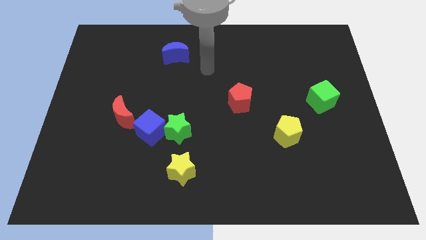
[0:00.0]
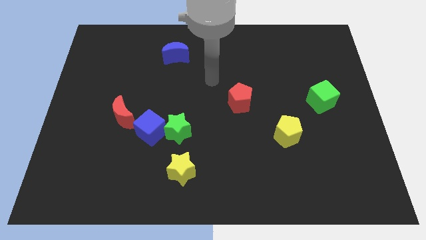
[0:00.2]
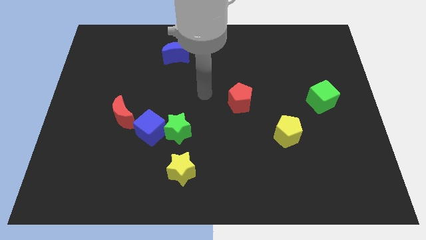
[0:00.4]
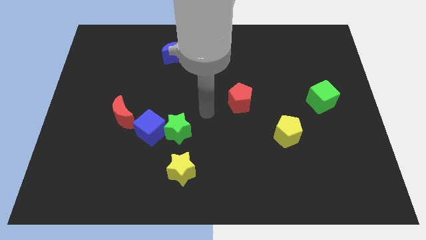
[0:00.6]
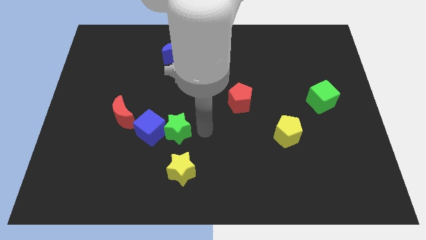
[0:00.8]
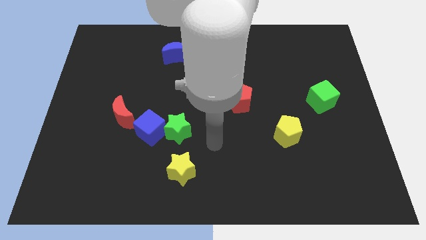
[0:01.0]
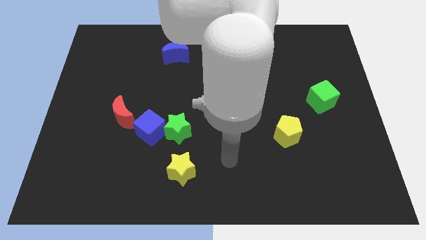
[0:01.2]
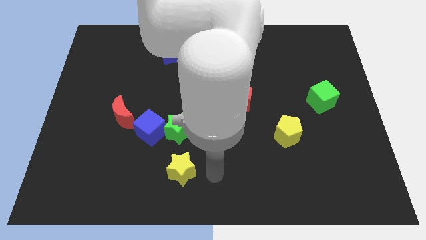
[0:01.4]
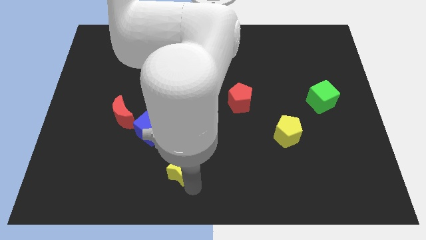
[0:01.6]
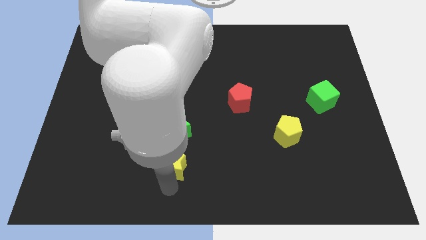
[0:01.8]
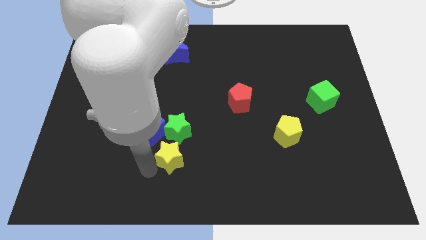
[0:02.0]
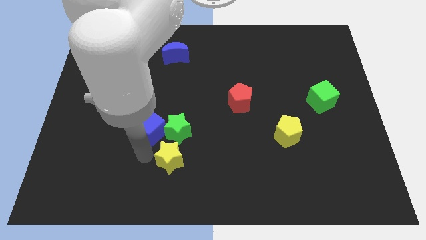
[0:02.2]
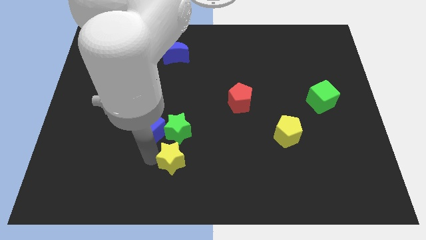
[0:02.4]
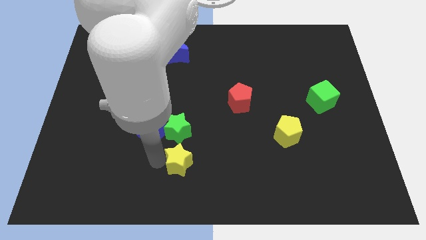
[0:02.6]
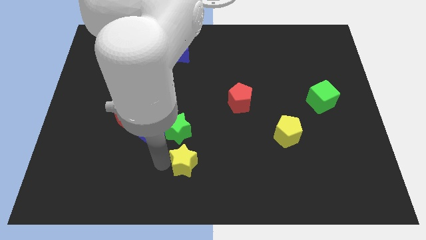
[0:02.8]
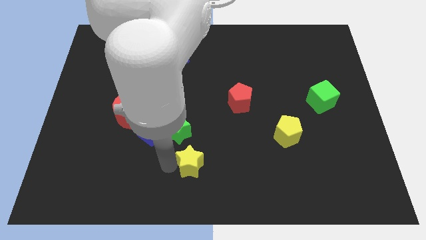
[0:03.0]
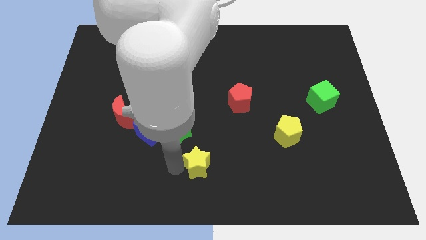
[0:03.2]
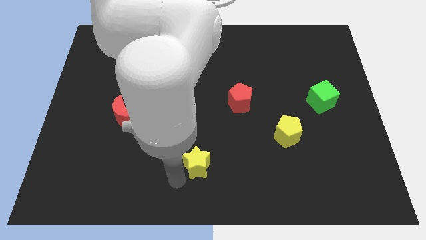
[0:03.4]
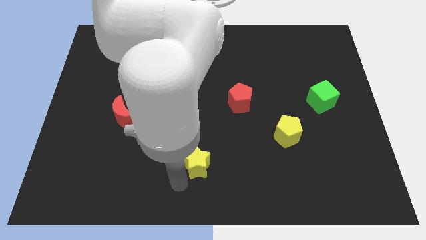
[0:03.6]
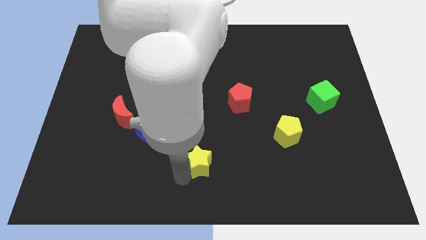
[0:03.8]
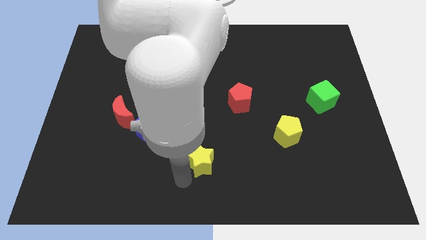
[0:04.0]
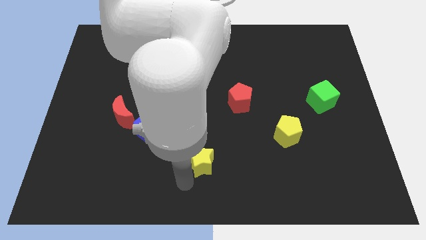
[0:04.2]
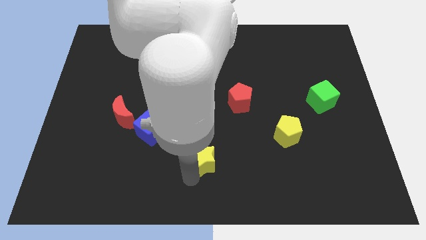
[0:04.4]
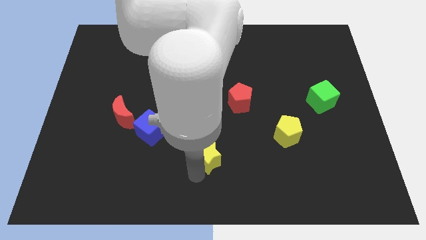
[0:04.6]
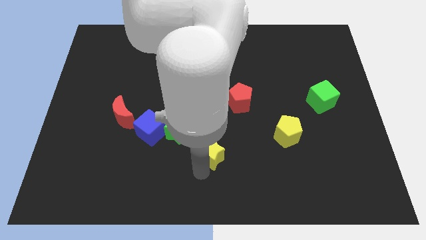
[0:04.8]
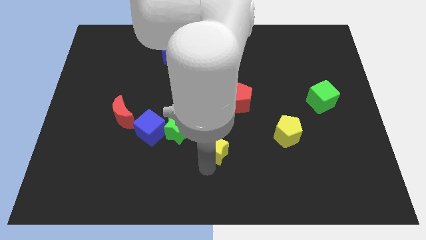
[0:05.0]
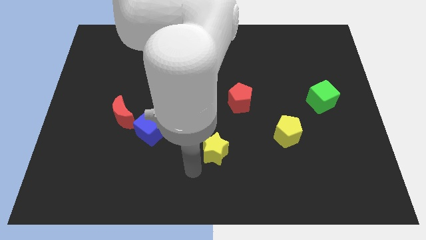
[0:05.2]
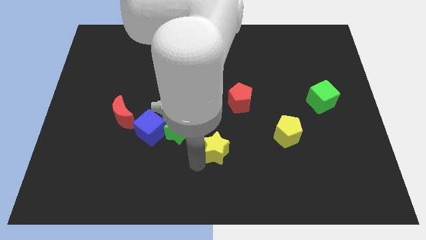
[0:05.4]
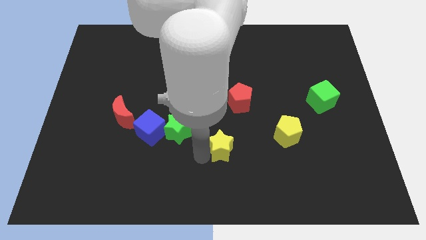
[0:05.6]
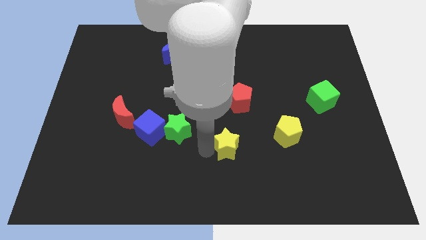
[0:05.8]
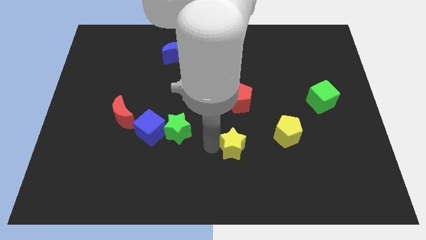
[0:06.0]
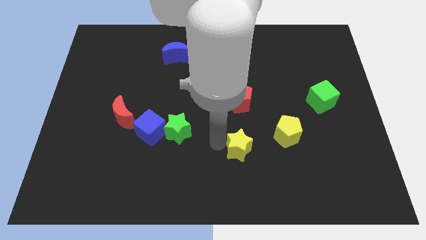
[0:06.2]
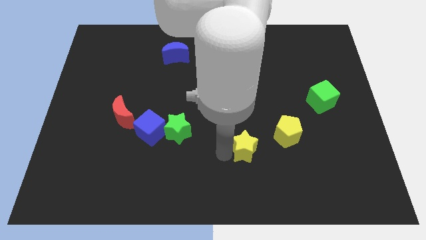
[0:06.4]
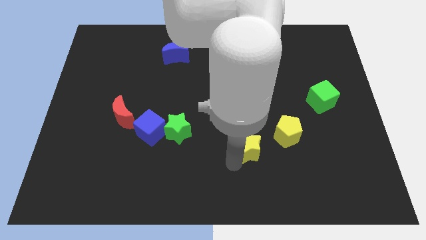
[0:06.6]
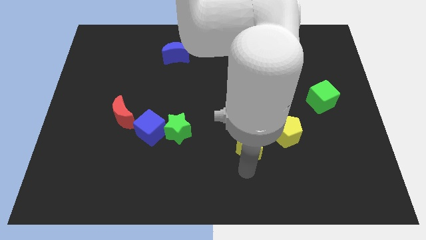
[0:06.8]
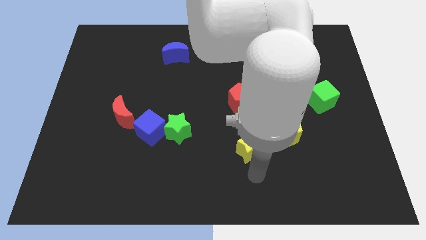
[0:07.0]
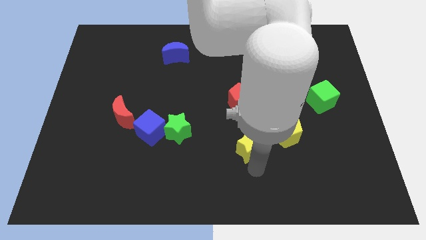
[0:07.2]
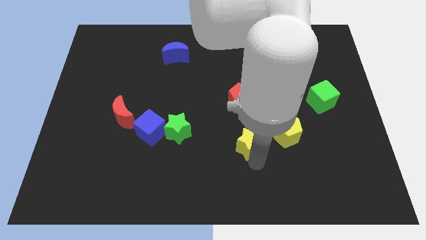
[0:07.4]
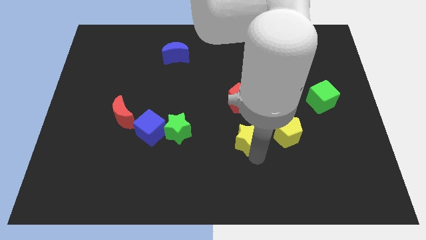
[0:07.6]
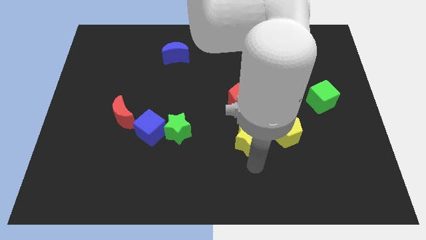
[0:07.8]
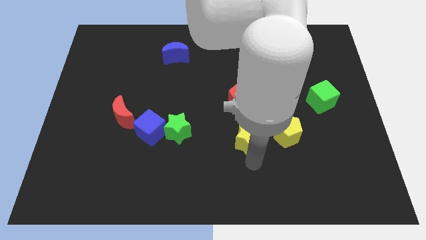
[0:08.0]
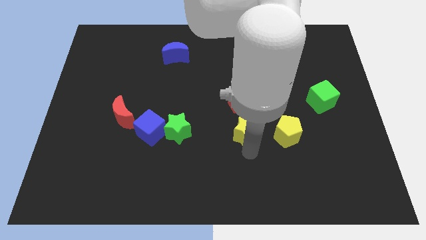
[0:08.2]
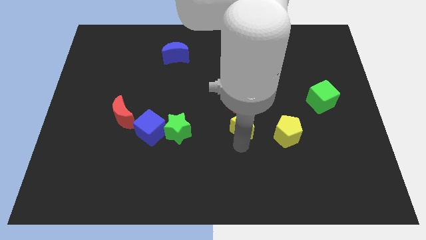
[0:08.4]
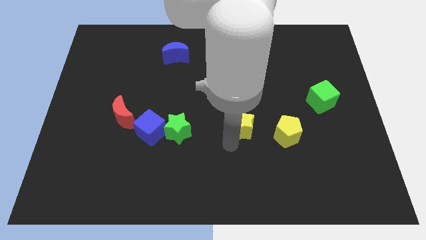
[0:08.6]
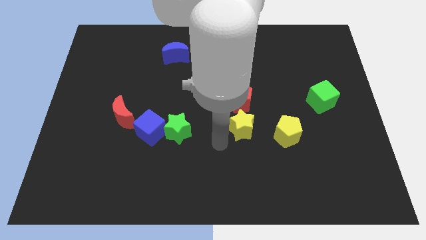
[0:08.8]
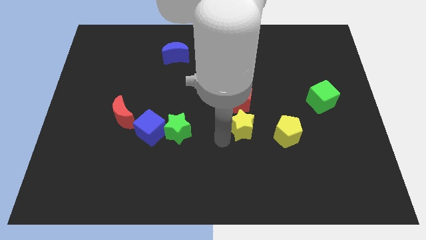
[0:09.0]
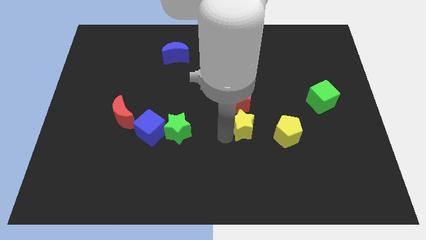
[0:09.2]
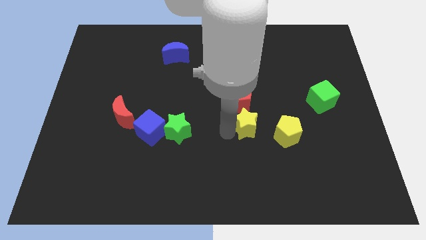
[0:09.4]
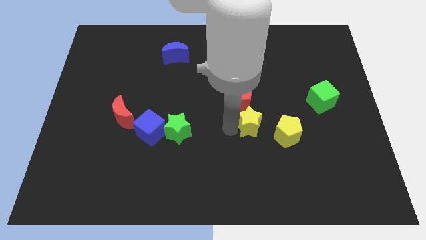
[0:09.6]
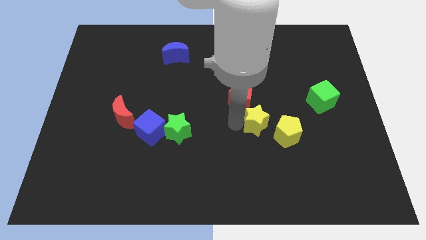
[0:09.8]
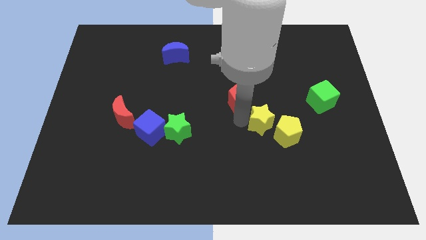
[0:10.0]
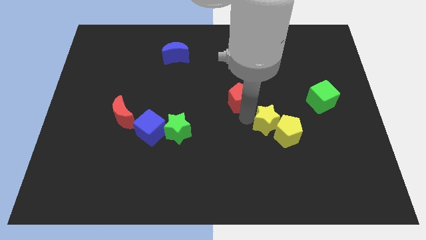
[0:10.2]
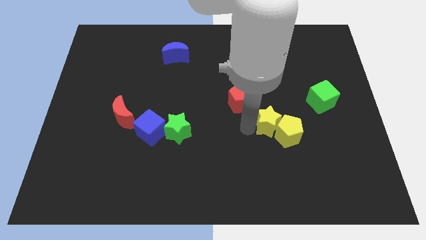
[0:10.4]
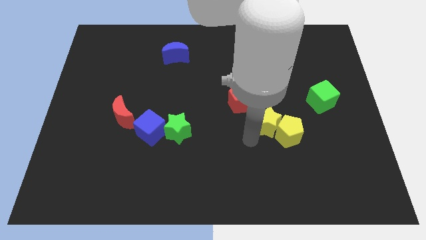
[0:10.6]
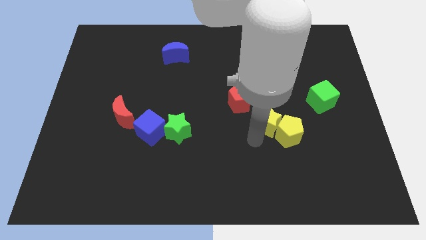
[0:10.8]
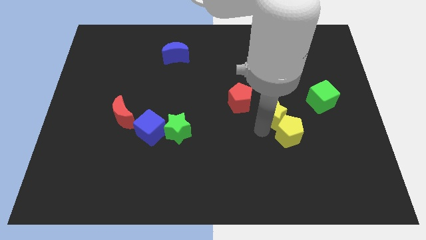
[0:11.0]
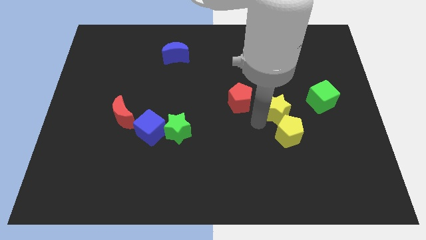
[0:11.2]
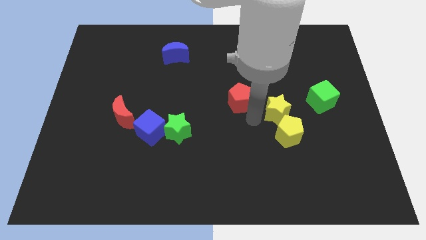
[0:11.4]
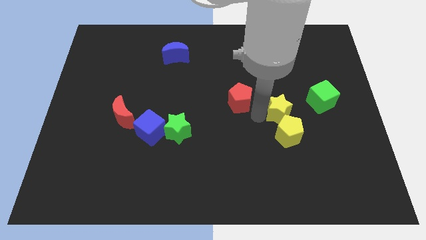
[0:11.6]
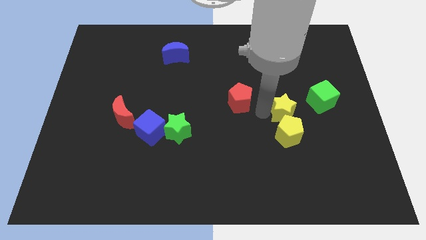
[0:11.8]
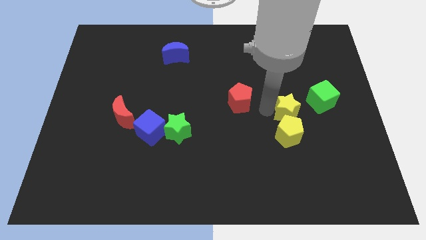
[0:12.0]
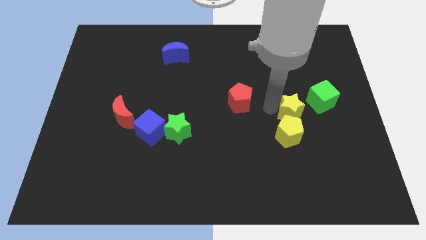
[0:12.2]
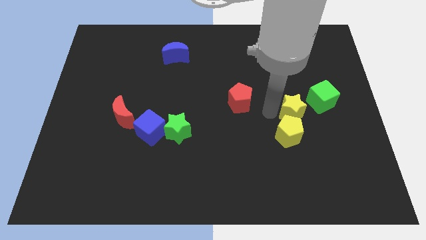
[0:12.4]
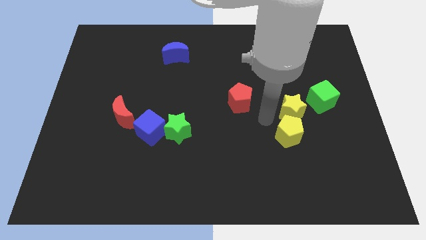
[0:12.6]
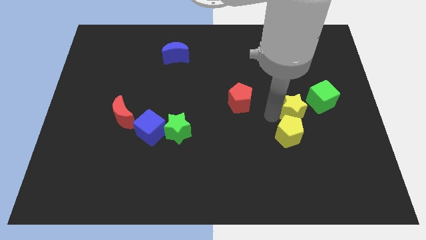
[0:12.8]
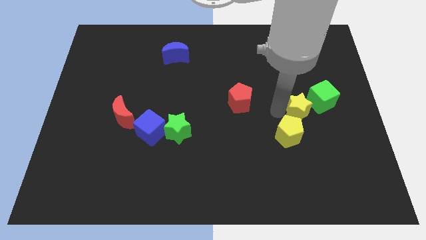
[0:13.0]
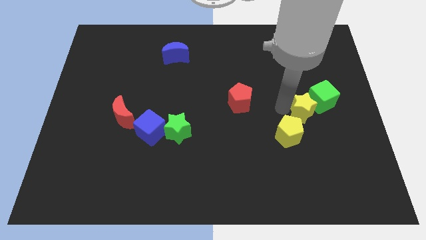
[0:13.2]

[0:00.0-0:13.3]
slide the yellow star close to the green cube
